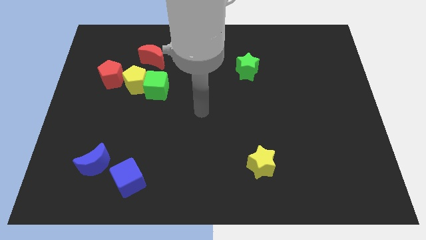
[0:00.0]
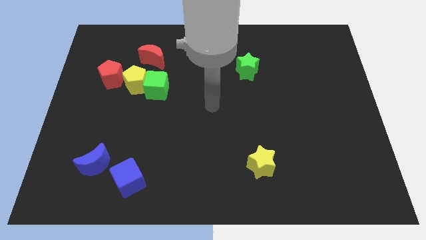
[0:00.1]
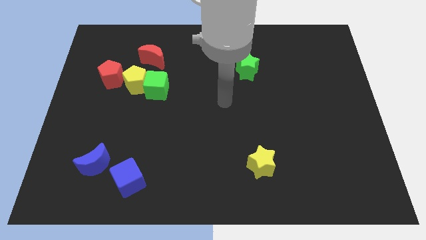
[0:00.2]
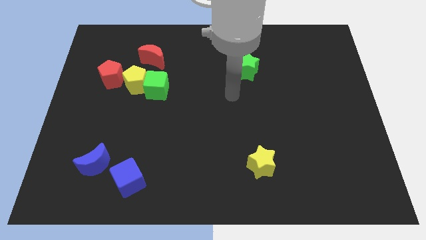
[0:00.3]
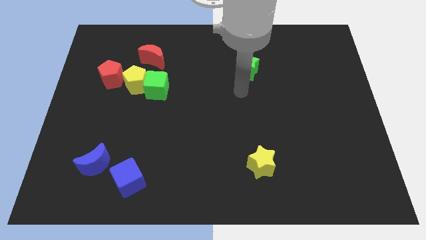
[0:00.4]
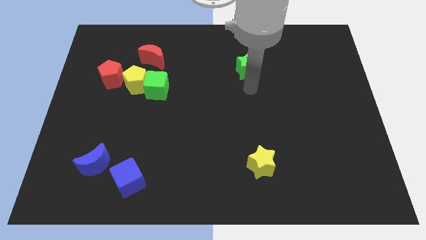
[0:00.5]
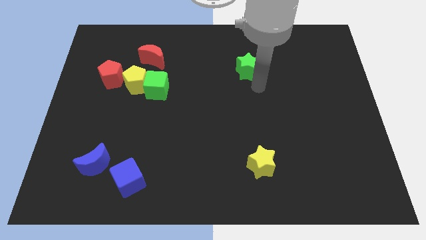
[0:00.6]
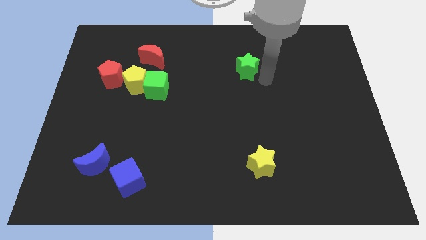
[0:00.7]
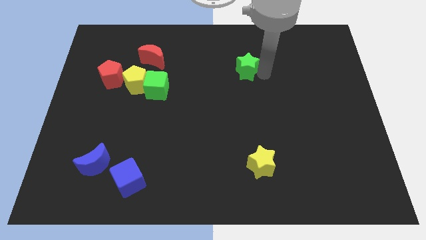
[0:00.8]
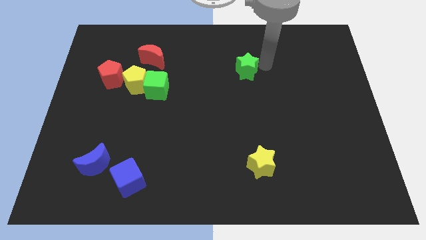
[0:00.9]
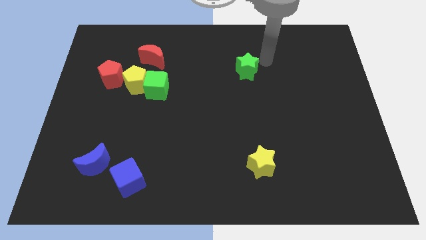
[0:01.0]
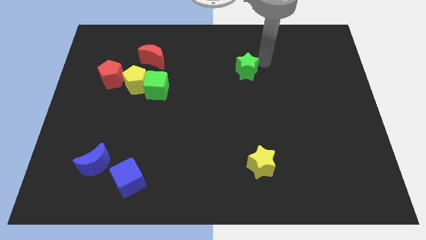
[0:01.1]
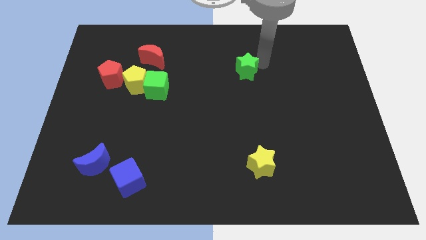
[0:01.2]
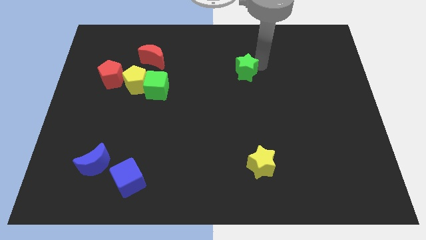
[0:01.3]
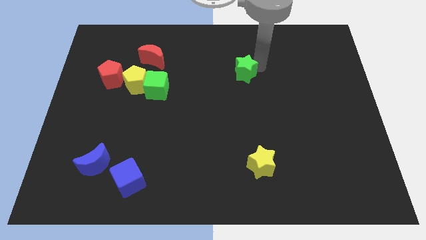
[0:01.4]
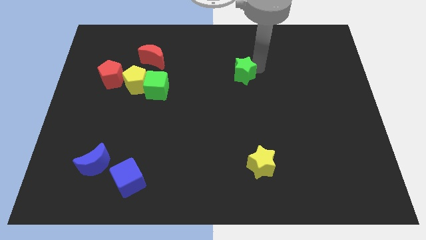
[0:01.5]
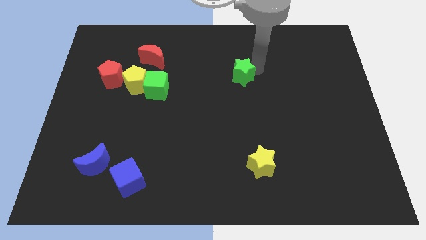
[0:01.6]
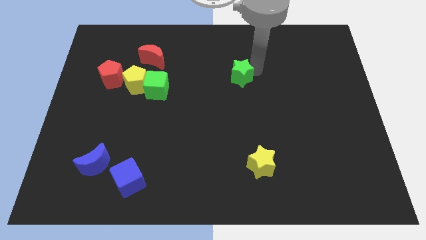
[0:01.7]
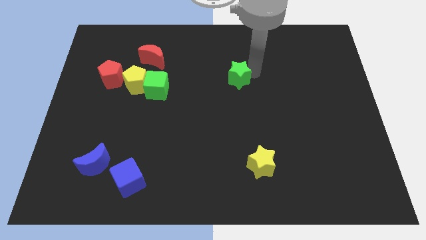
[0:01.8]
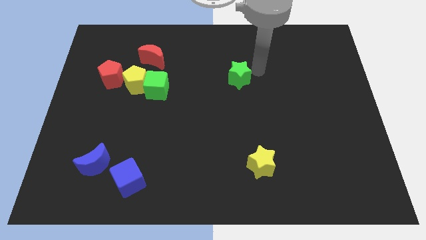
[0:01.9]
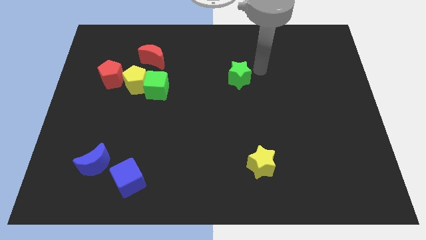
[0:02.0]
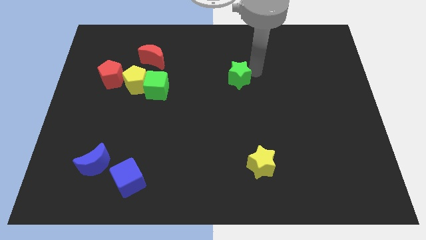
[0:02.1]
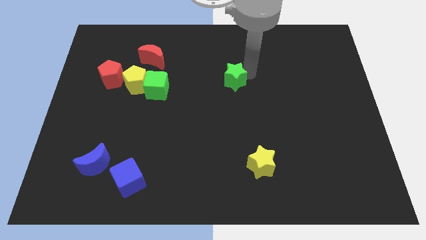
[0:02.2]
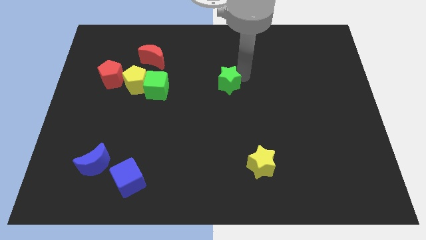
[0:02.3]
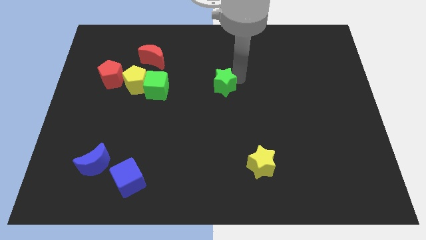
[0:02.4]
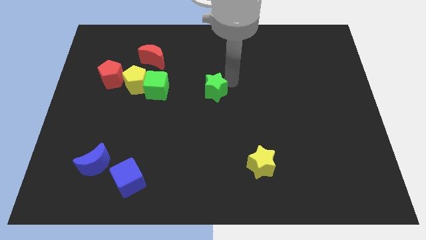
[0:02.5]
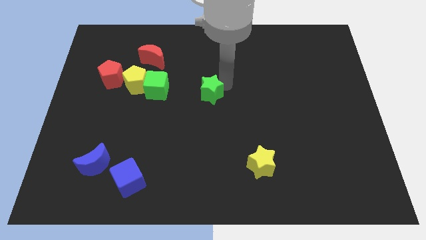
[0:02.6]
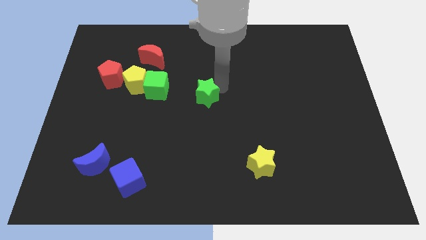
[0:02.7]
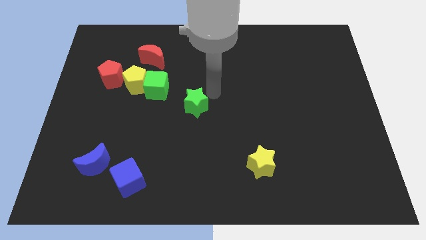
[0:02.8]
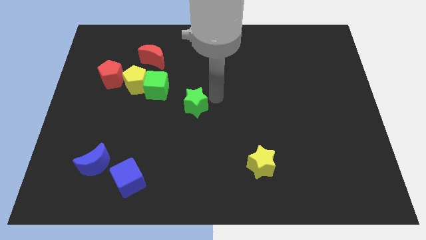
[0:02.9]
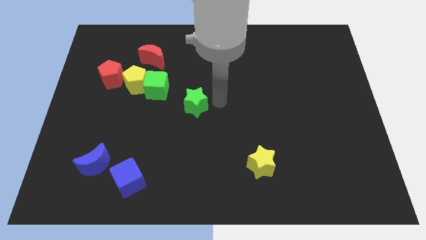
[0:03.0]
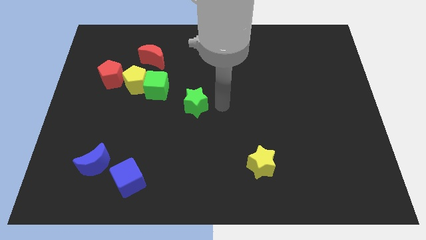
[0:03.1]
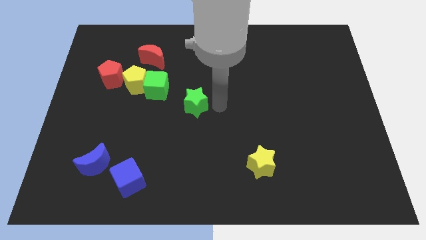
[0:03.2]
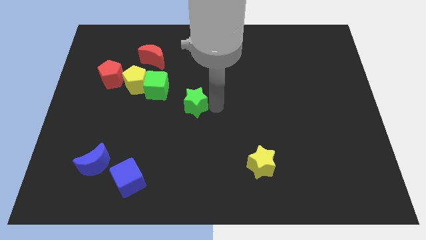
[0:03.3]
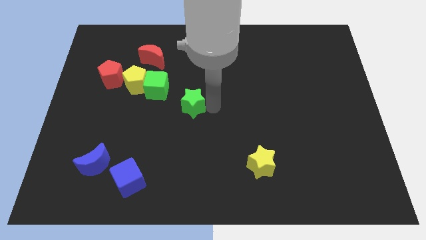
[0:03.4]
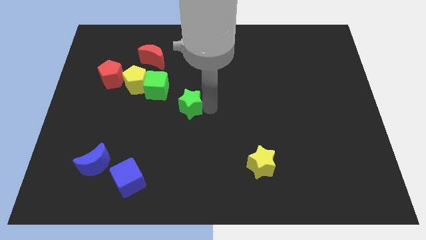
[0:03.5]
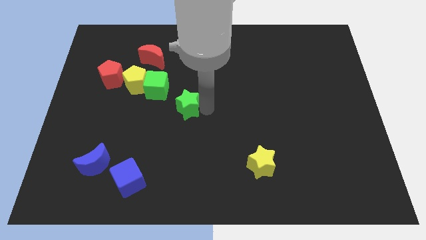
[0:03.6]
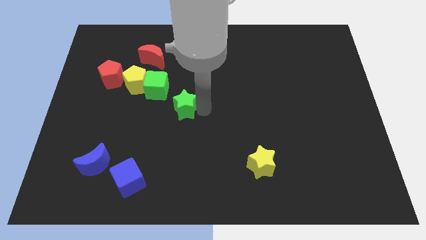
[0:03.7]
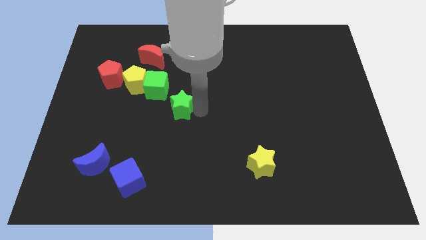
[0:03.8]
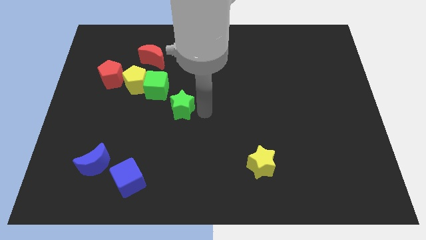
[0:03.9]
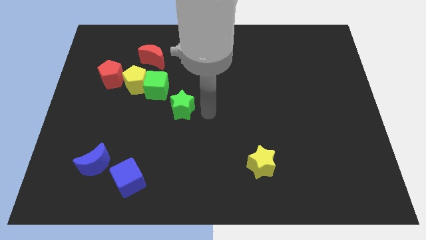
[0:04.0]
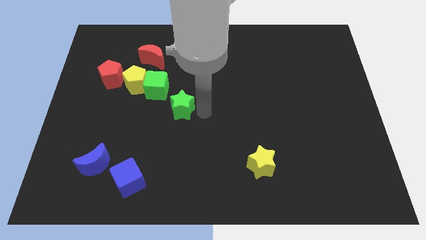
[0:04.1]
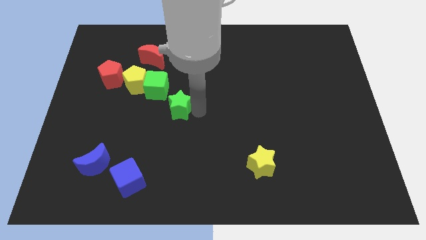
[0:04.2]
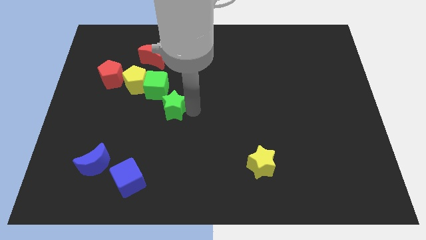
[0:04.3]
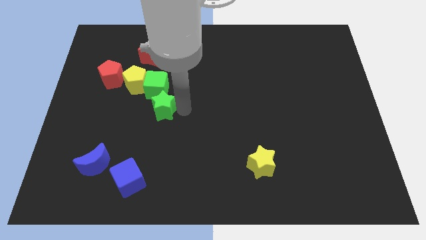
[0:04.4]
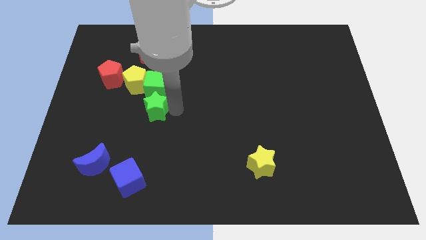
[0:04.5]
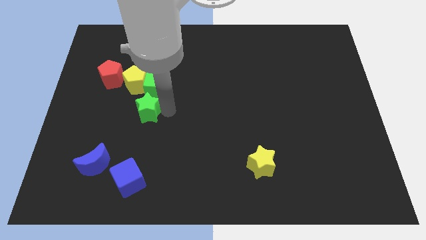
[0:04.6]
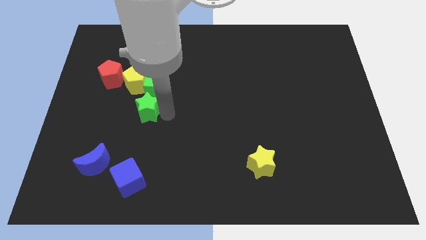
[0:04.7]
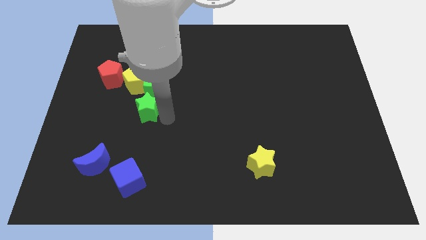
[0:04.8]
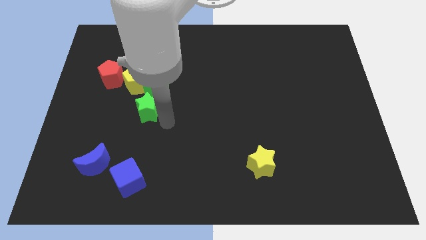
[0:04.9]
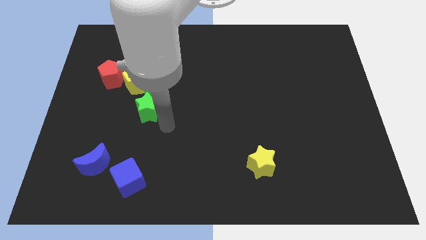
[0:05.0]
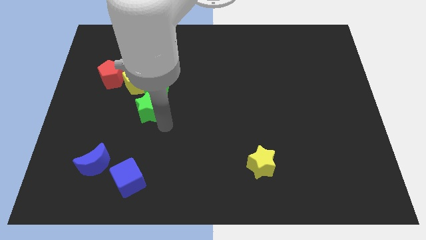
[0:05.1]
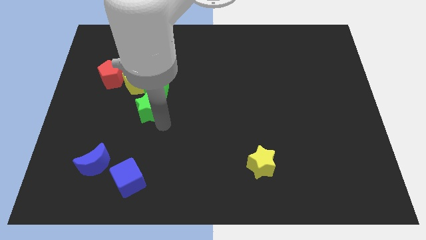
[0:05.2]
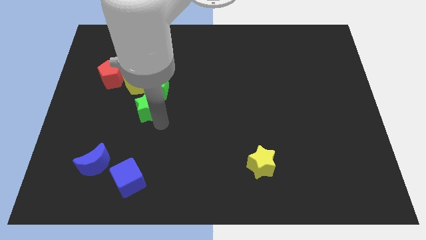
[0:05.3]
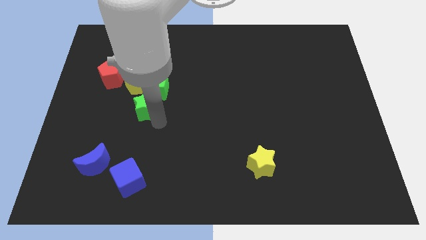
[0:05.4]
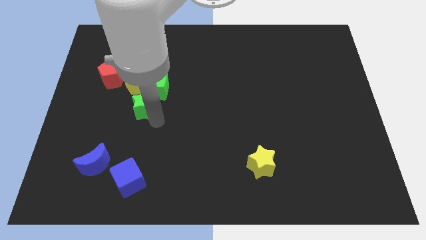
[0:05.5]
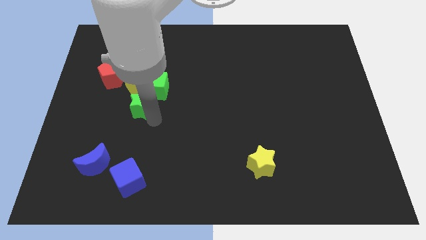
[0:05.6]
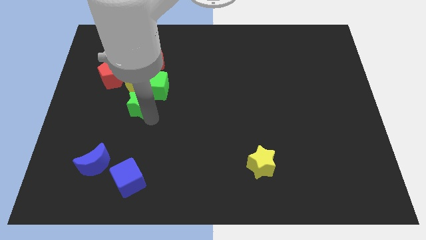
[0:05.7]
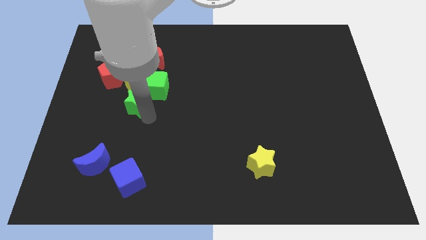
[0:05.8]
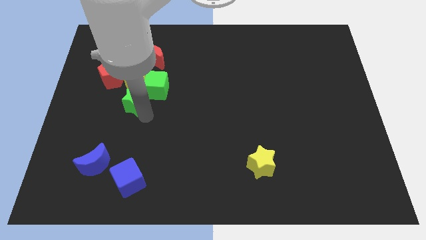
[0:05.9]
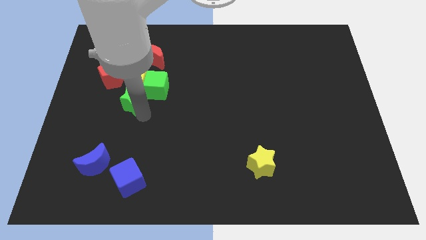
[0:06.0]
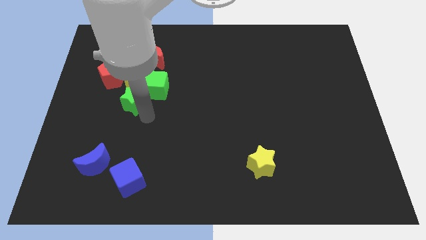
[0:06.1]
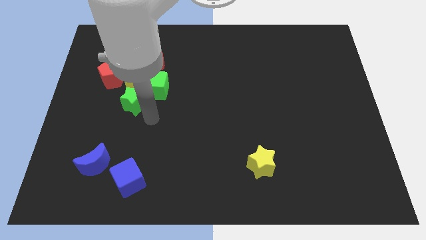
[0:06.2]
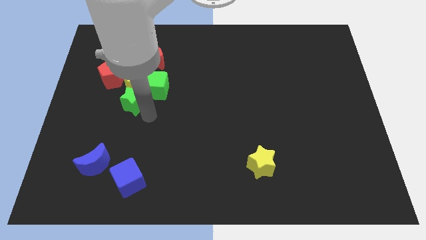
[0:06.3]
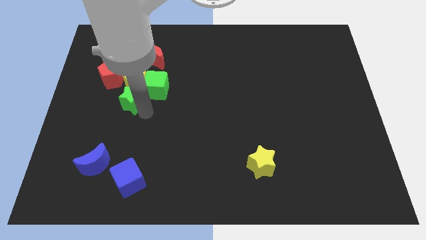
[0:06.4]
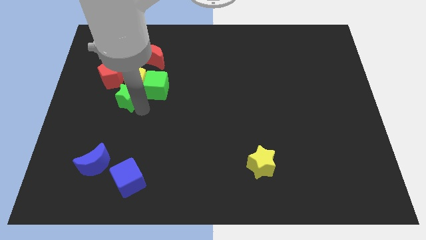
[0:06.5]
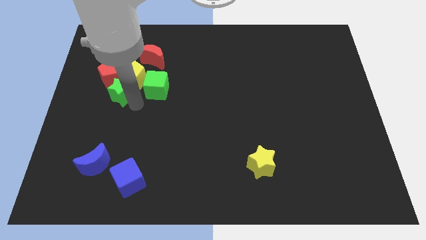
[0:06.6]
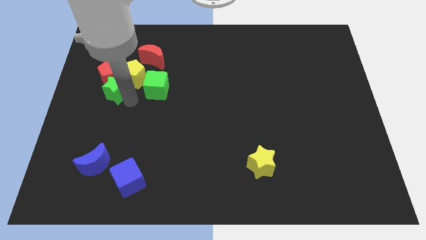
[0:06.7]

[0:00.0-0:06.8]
put the green star next to the red pentagon
